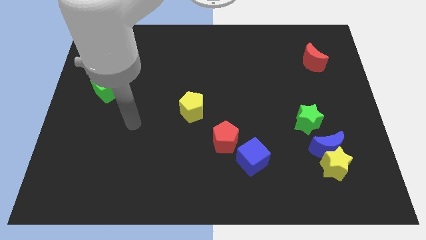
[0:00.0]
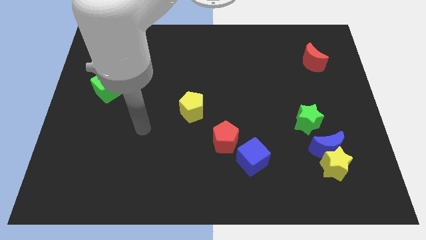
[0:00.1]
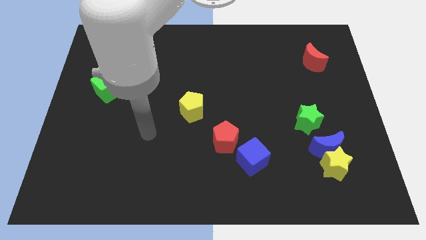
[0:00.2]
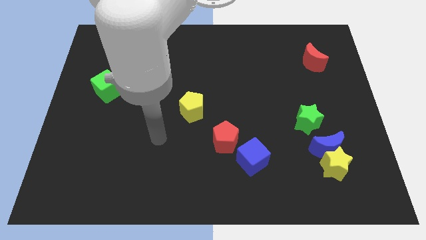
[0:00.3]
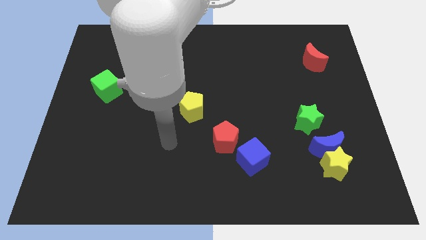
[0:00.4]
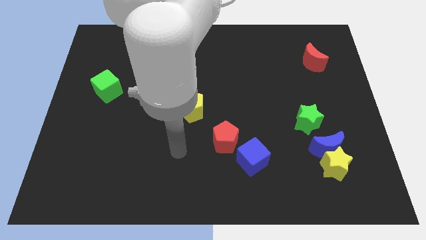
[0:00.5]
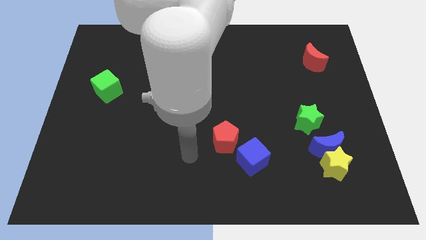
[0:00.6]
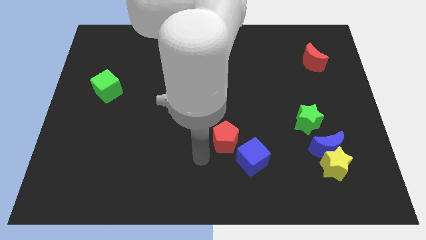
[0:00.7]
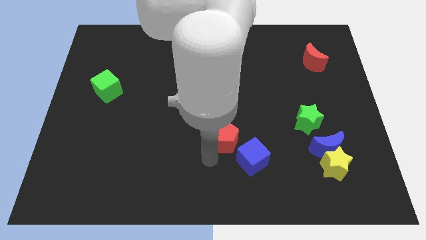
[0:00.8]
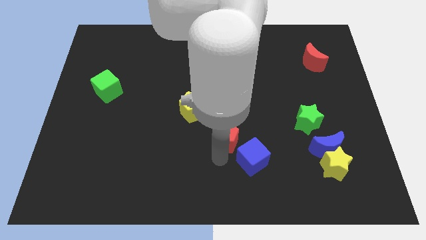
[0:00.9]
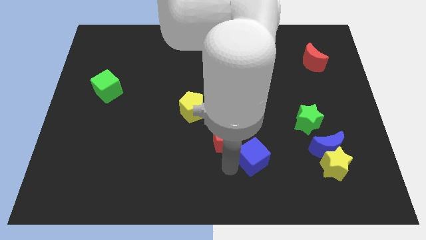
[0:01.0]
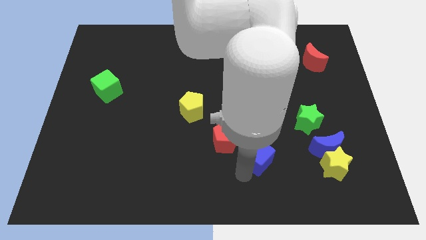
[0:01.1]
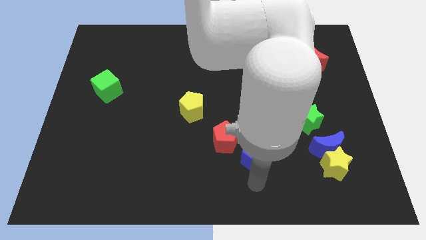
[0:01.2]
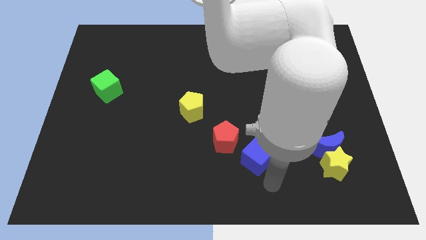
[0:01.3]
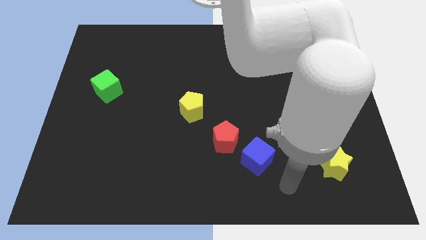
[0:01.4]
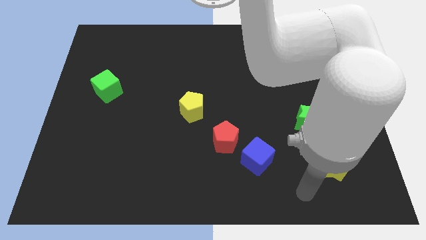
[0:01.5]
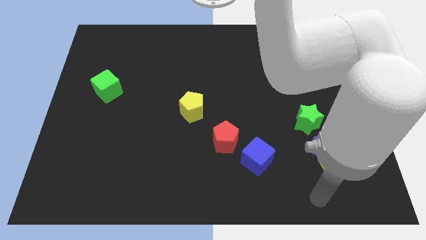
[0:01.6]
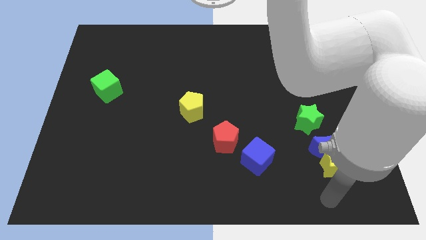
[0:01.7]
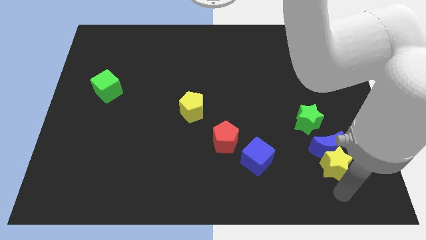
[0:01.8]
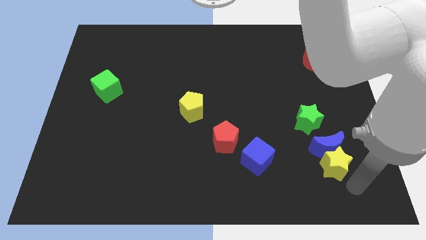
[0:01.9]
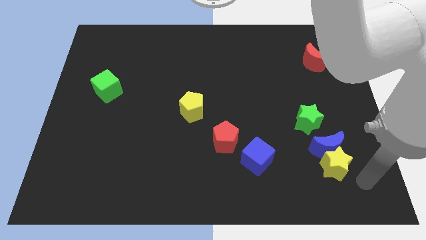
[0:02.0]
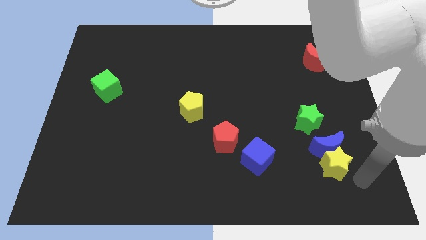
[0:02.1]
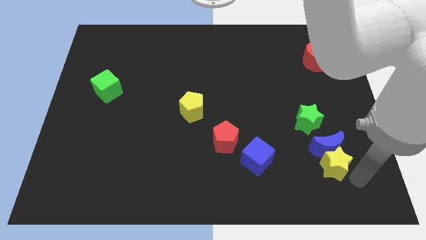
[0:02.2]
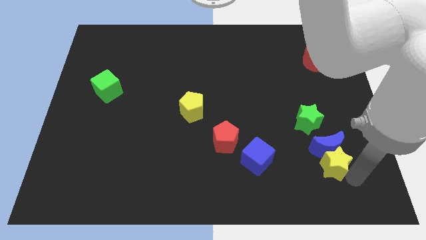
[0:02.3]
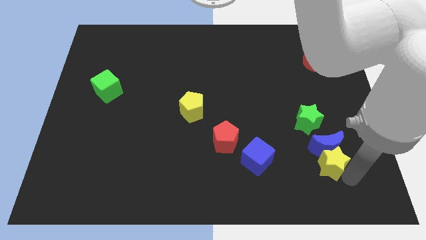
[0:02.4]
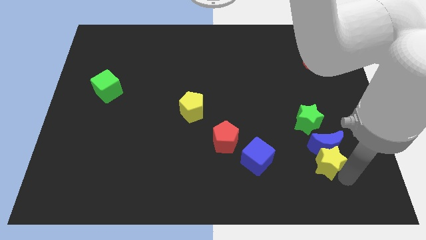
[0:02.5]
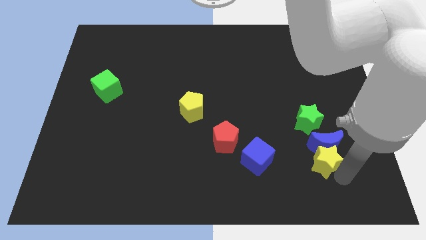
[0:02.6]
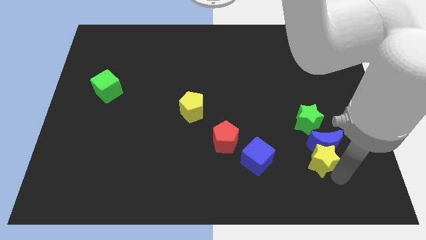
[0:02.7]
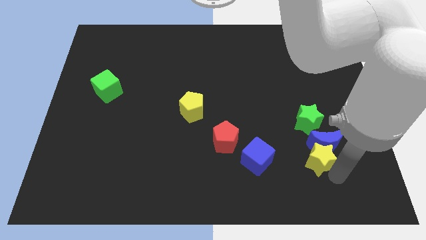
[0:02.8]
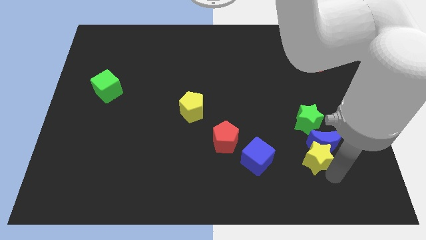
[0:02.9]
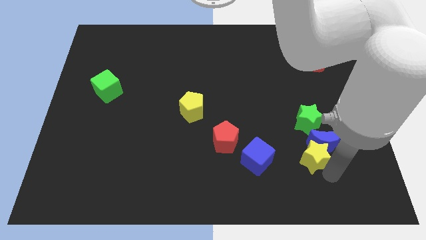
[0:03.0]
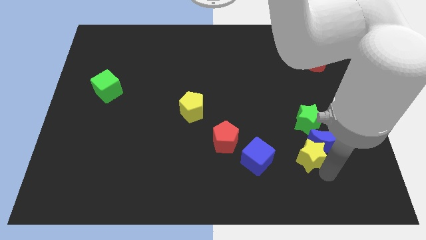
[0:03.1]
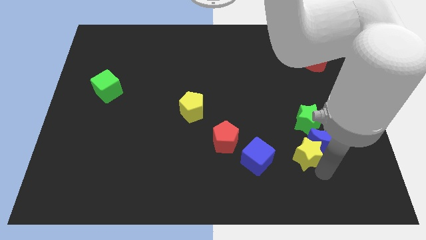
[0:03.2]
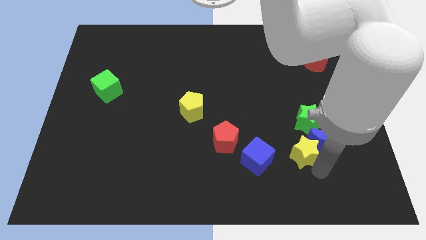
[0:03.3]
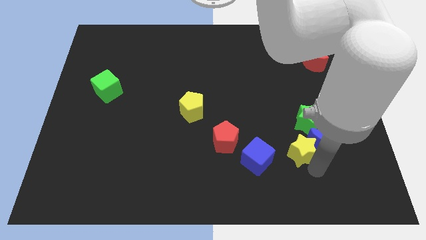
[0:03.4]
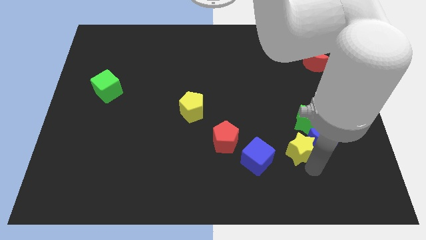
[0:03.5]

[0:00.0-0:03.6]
push the yellow star somewhat diagonally up and left

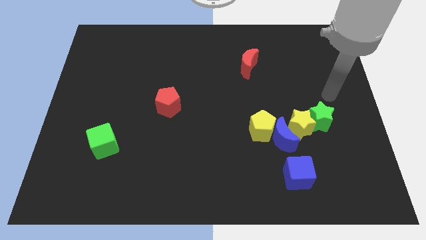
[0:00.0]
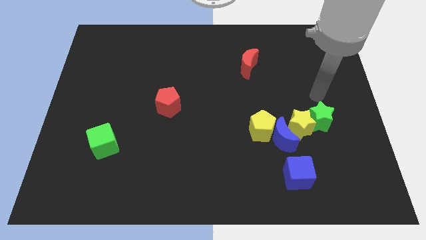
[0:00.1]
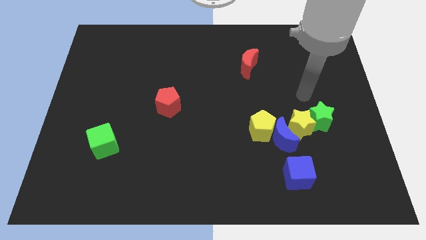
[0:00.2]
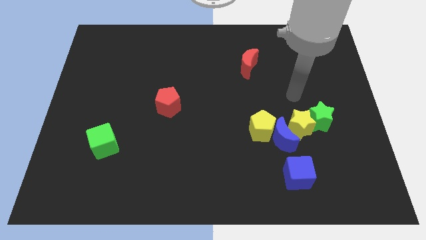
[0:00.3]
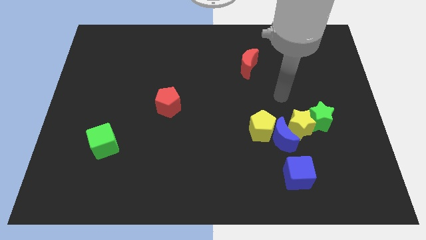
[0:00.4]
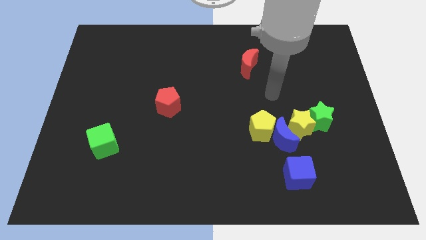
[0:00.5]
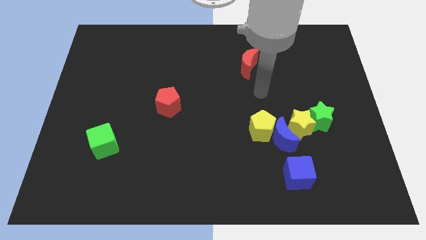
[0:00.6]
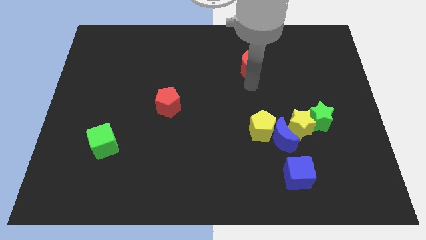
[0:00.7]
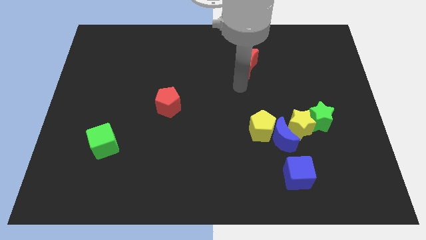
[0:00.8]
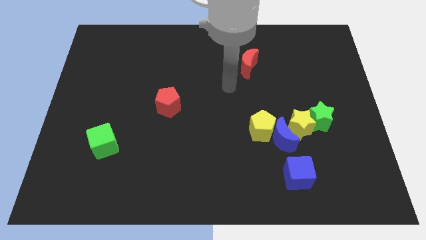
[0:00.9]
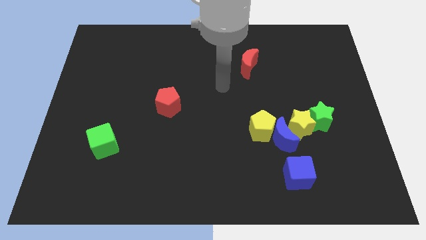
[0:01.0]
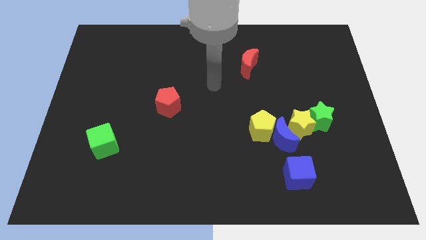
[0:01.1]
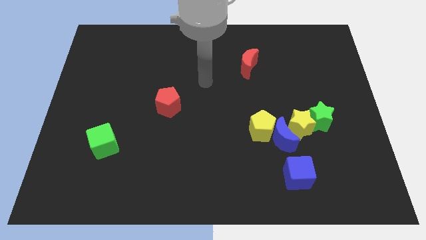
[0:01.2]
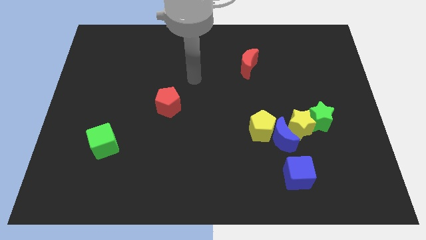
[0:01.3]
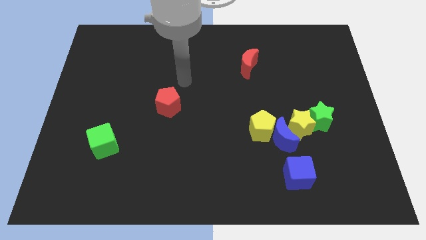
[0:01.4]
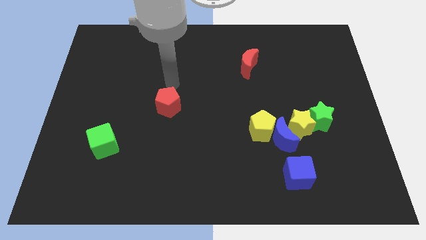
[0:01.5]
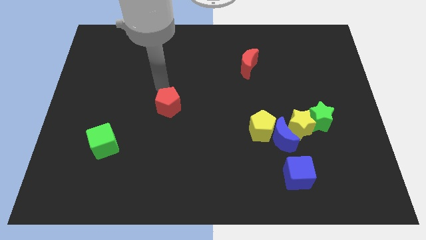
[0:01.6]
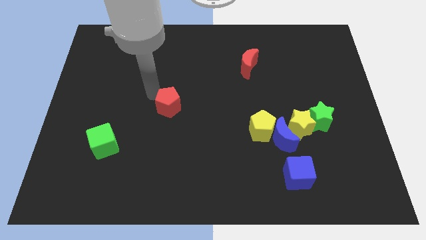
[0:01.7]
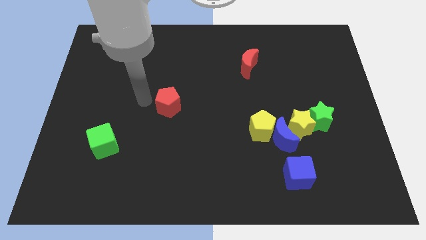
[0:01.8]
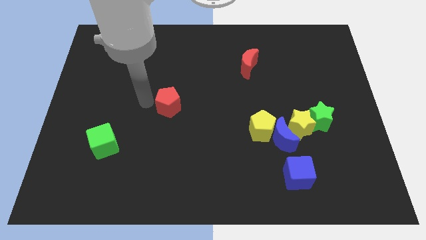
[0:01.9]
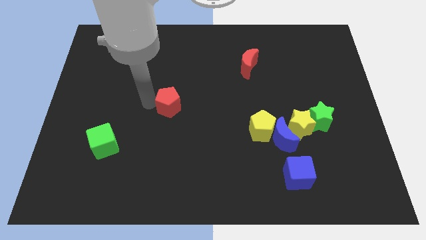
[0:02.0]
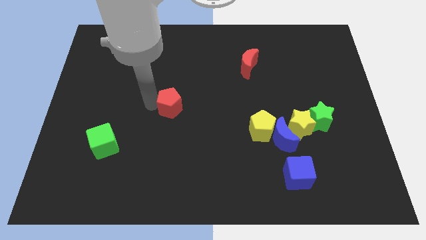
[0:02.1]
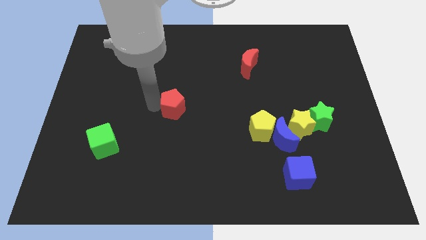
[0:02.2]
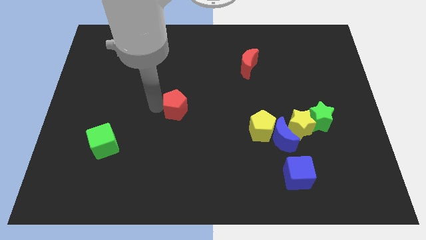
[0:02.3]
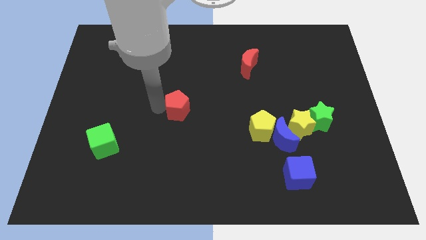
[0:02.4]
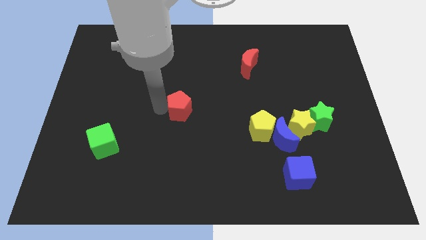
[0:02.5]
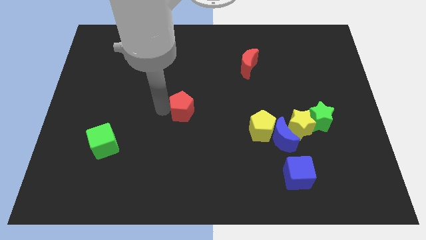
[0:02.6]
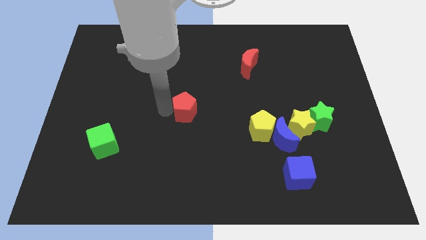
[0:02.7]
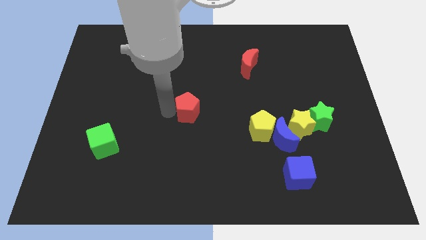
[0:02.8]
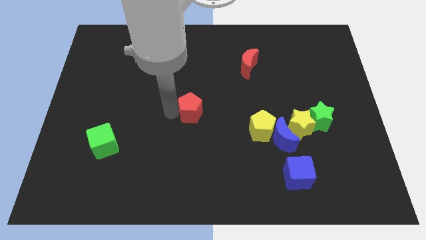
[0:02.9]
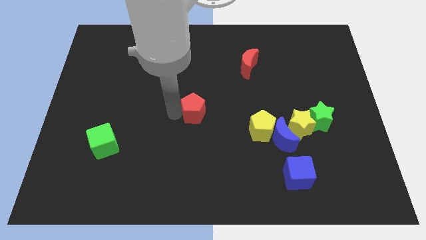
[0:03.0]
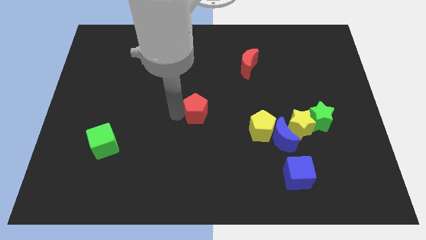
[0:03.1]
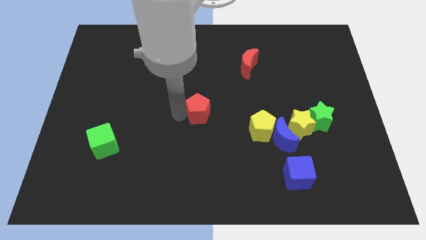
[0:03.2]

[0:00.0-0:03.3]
move the red pentagon a little to the right

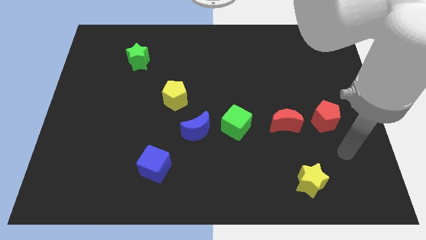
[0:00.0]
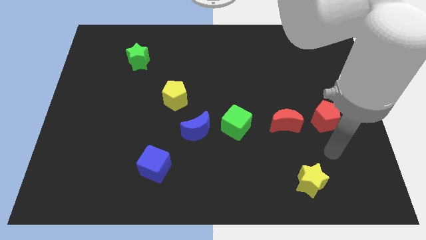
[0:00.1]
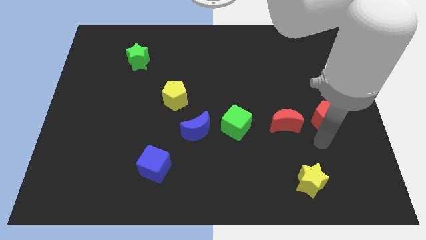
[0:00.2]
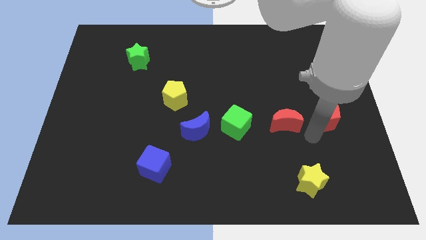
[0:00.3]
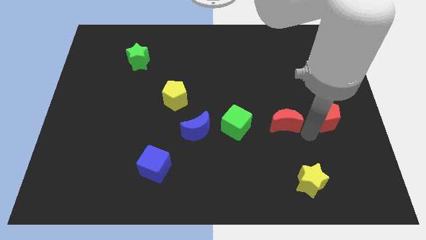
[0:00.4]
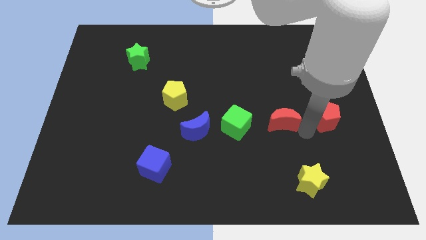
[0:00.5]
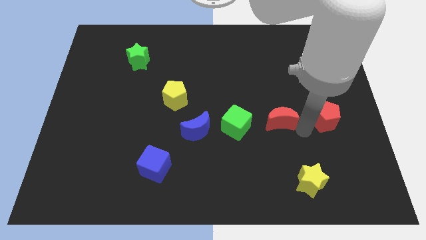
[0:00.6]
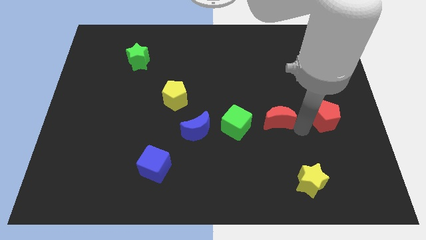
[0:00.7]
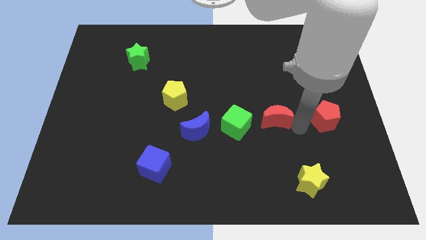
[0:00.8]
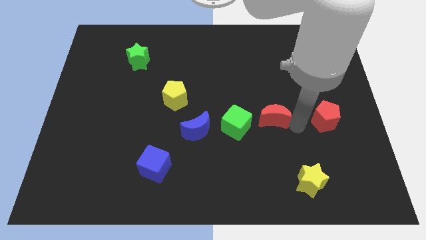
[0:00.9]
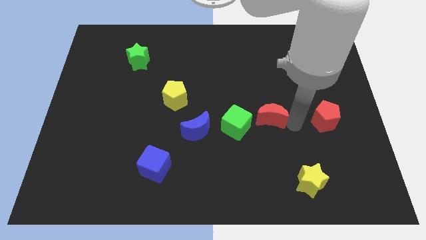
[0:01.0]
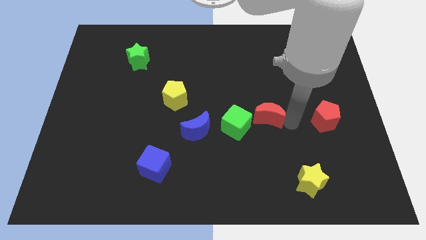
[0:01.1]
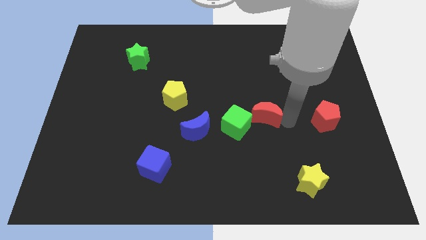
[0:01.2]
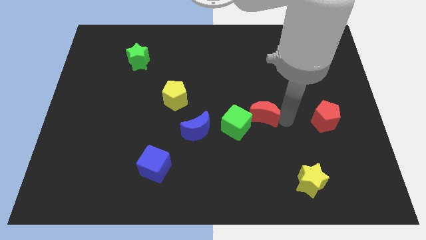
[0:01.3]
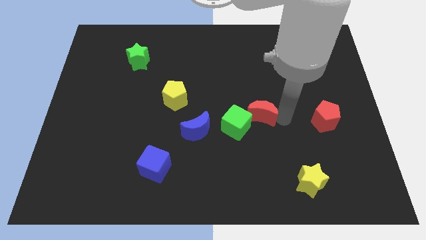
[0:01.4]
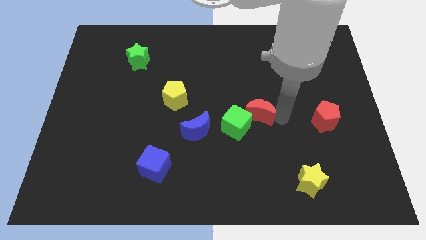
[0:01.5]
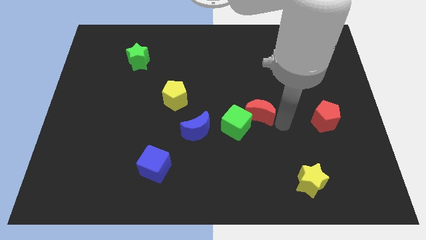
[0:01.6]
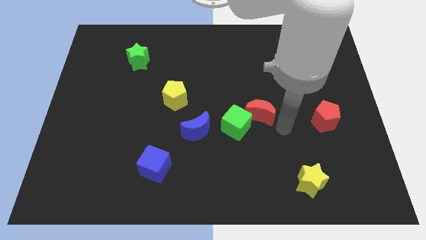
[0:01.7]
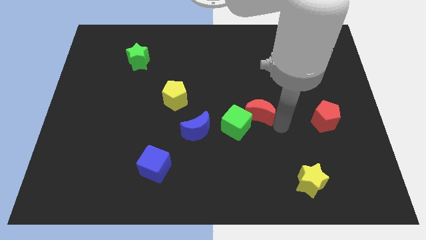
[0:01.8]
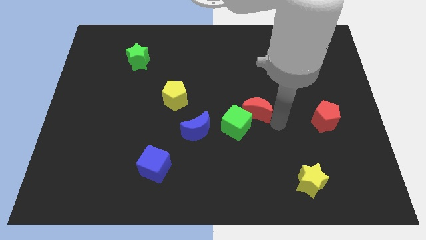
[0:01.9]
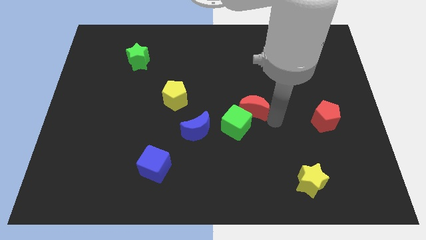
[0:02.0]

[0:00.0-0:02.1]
push the red moon somewhat up and to the left diagonally
